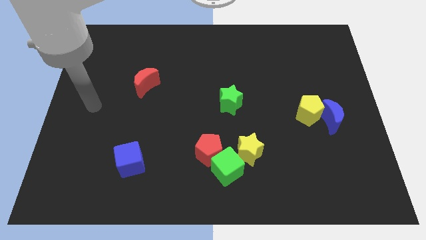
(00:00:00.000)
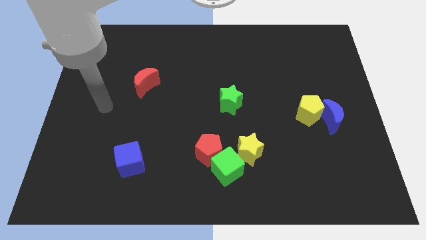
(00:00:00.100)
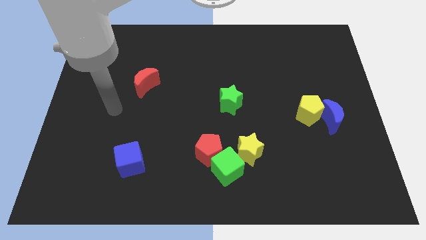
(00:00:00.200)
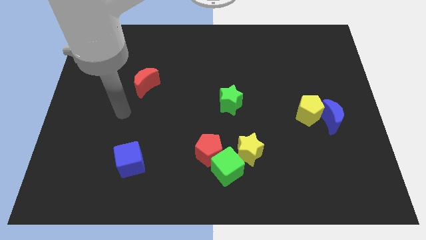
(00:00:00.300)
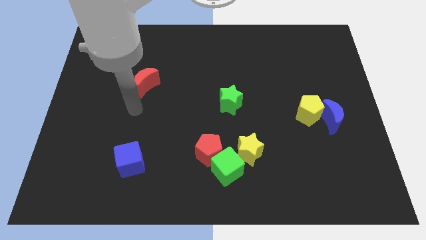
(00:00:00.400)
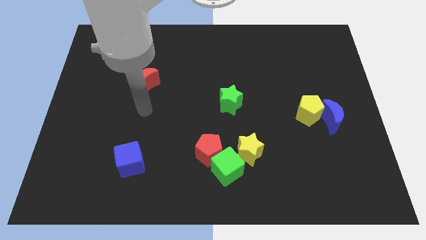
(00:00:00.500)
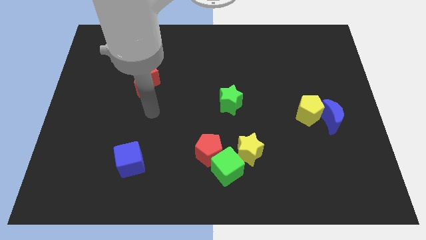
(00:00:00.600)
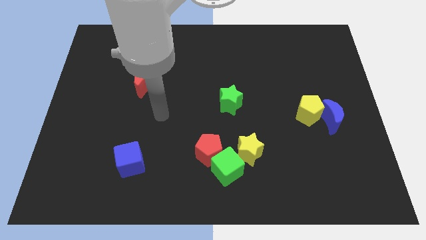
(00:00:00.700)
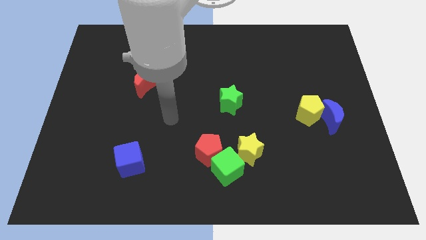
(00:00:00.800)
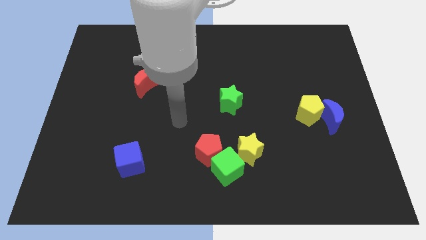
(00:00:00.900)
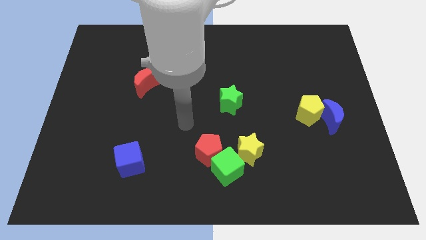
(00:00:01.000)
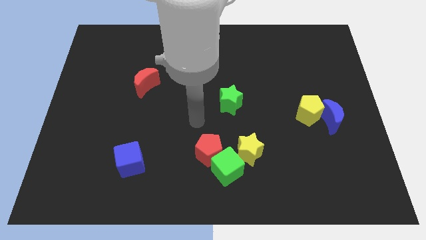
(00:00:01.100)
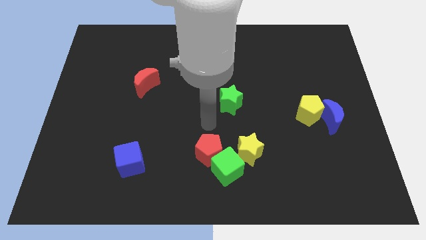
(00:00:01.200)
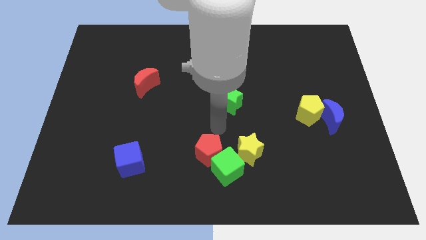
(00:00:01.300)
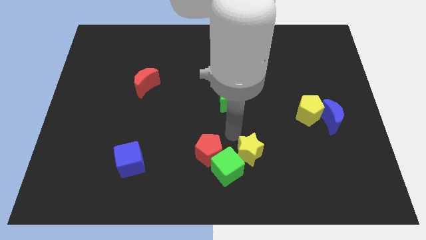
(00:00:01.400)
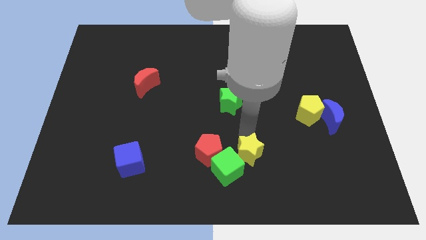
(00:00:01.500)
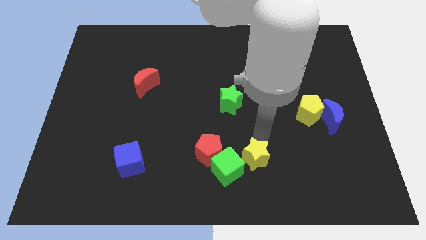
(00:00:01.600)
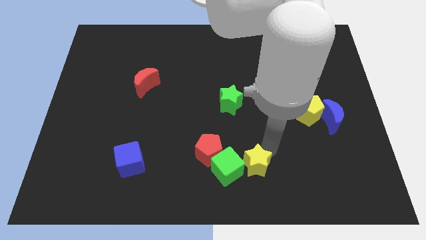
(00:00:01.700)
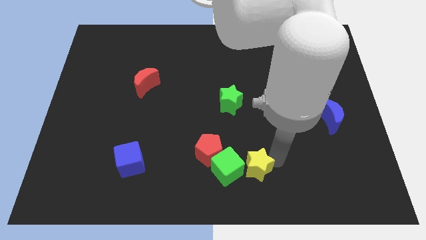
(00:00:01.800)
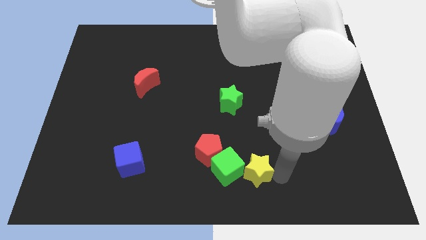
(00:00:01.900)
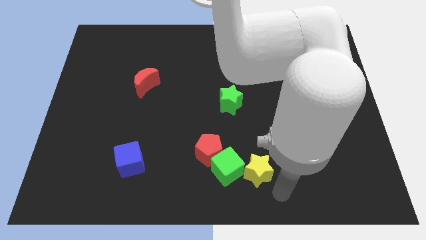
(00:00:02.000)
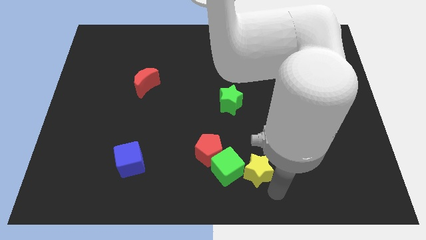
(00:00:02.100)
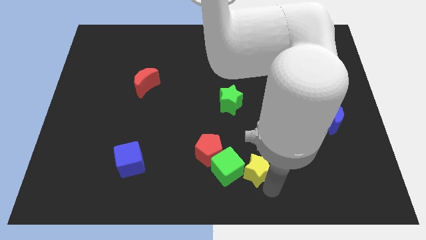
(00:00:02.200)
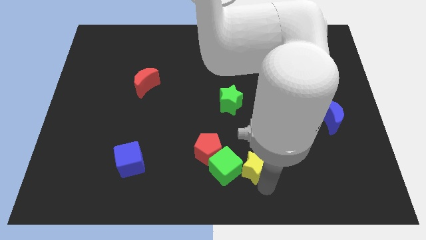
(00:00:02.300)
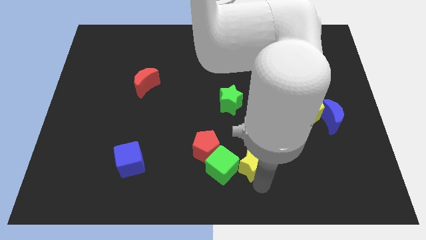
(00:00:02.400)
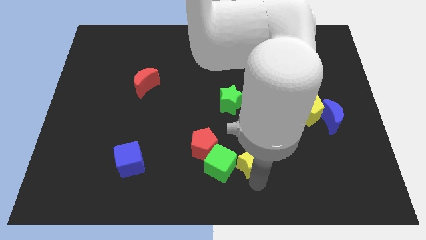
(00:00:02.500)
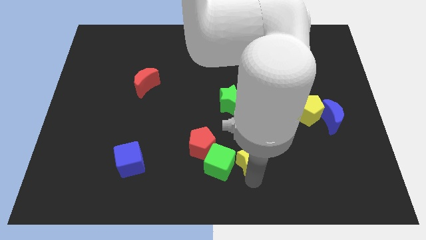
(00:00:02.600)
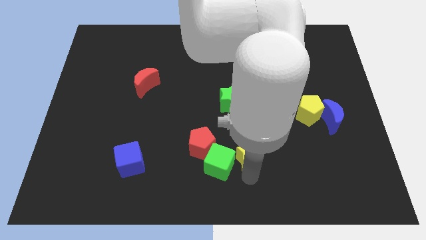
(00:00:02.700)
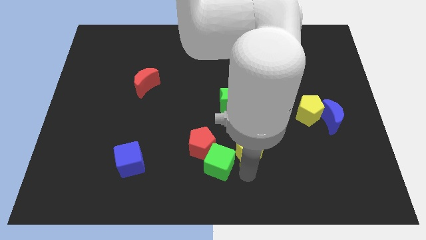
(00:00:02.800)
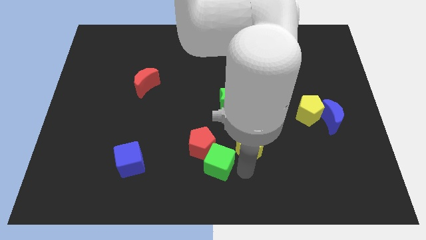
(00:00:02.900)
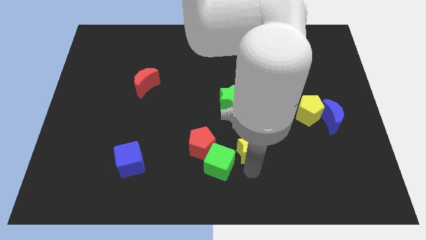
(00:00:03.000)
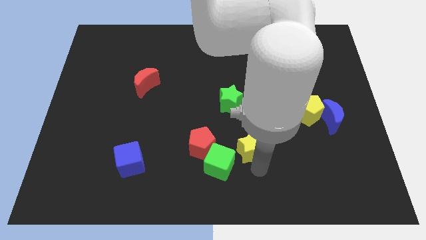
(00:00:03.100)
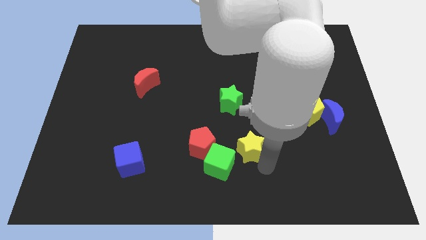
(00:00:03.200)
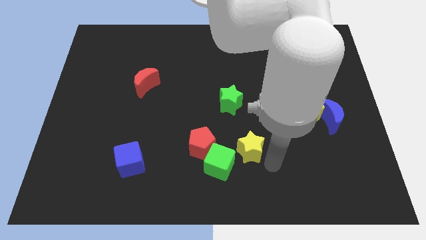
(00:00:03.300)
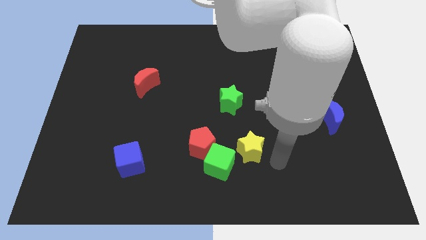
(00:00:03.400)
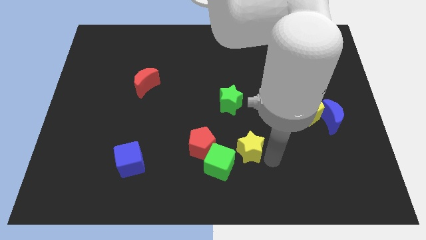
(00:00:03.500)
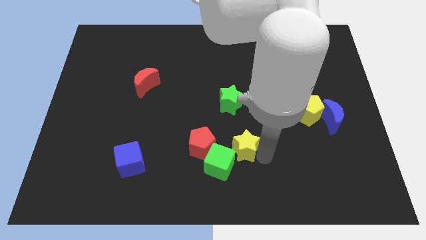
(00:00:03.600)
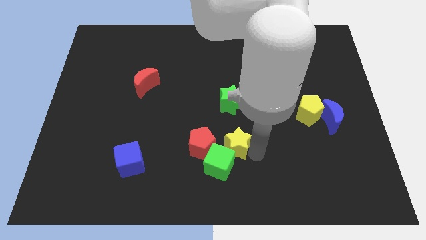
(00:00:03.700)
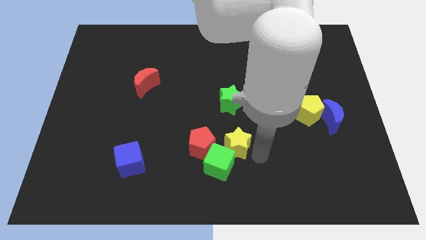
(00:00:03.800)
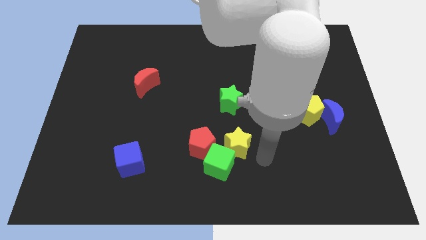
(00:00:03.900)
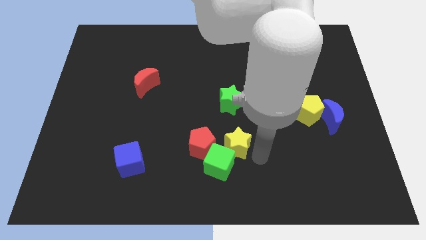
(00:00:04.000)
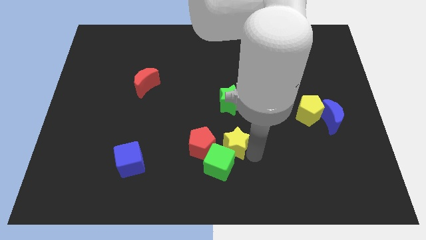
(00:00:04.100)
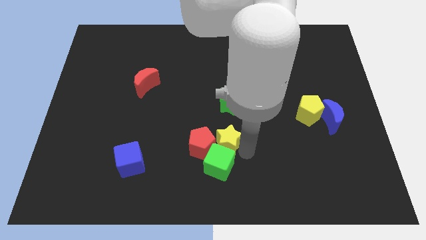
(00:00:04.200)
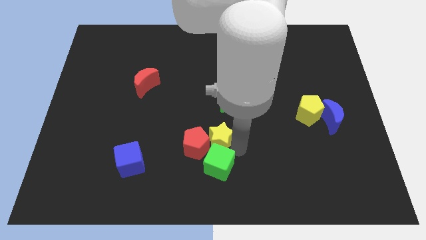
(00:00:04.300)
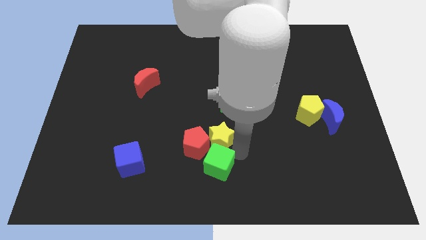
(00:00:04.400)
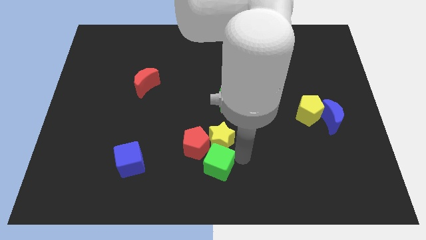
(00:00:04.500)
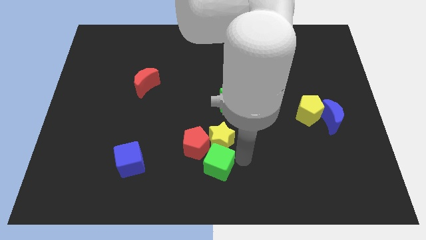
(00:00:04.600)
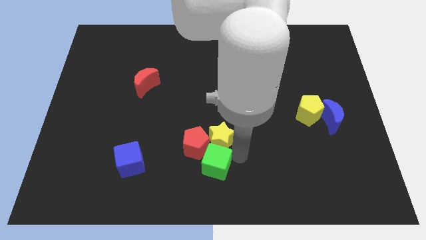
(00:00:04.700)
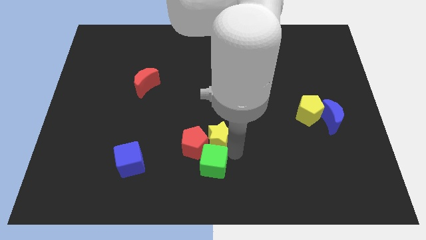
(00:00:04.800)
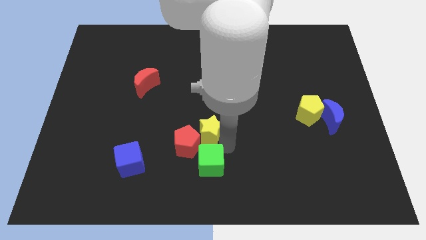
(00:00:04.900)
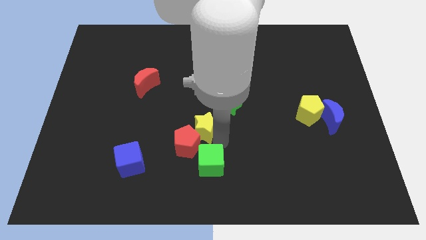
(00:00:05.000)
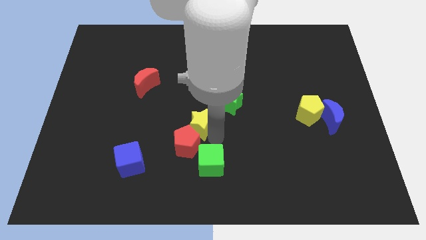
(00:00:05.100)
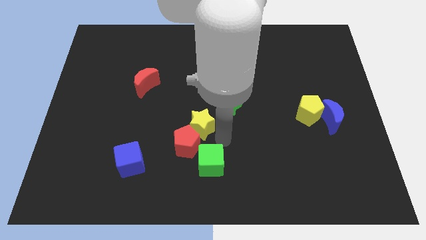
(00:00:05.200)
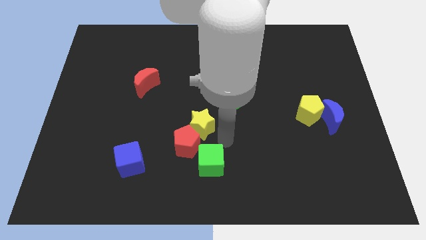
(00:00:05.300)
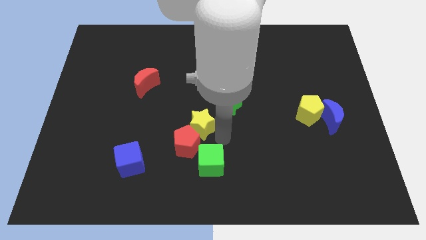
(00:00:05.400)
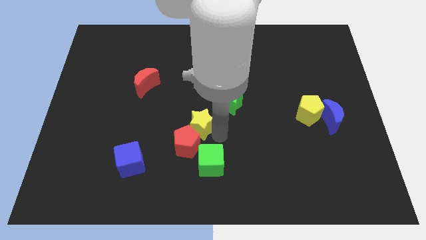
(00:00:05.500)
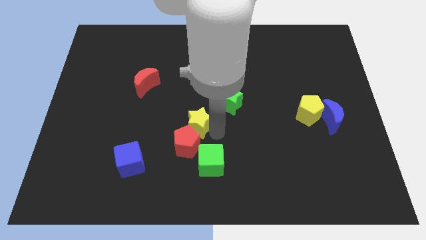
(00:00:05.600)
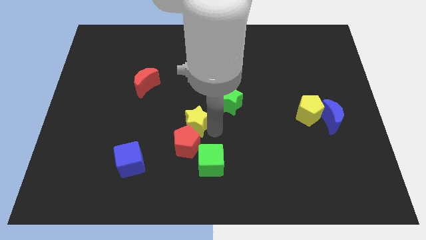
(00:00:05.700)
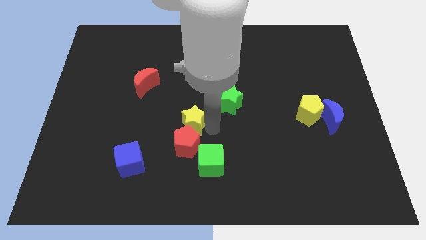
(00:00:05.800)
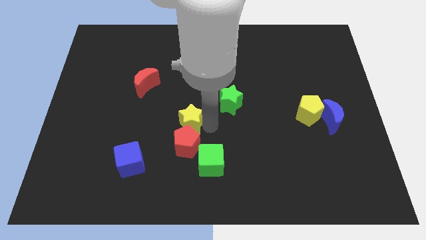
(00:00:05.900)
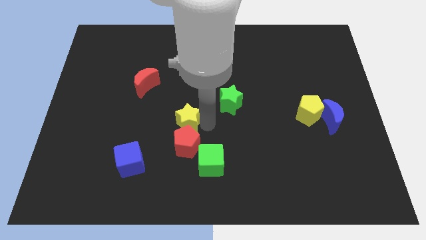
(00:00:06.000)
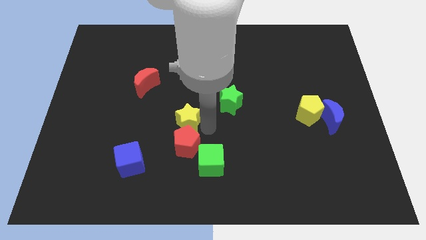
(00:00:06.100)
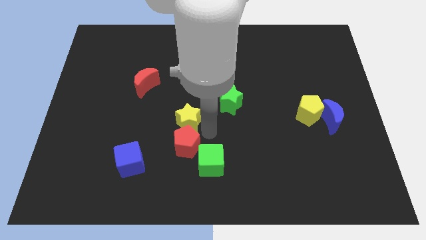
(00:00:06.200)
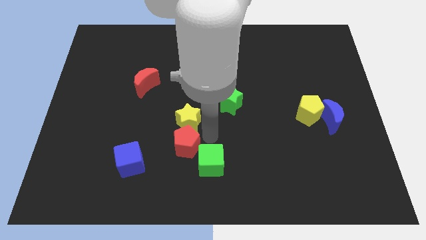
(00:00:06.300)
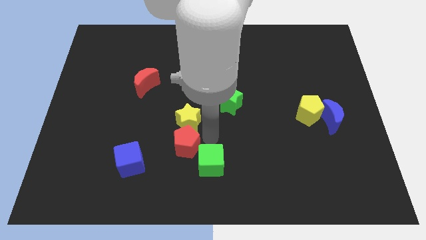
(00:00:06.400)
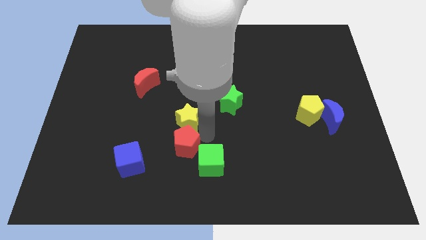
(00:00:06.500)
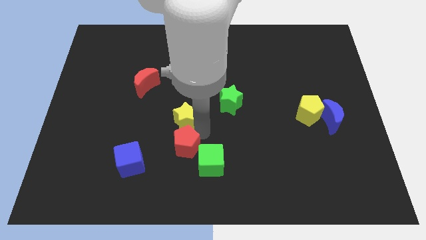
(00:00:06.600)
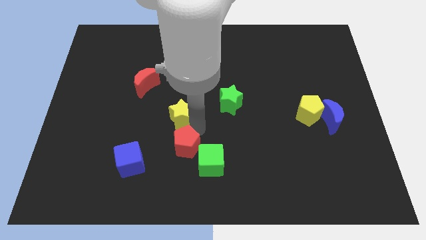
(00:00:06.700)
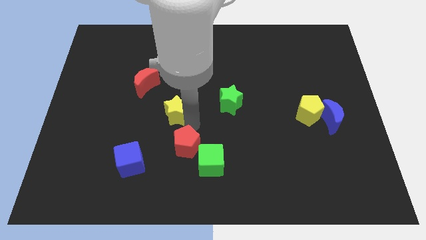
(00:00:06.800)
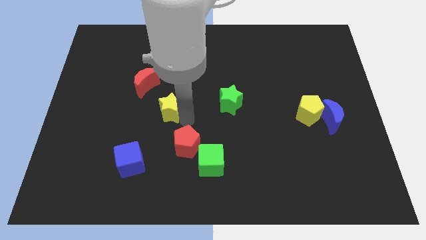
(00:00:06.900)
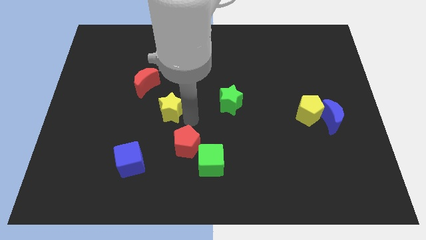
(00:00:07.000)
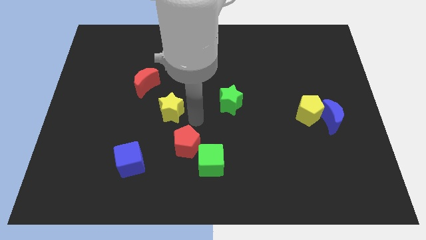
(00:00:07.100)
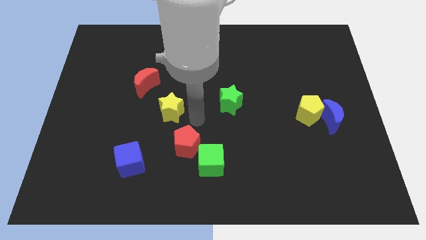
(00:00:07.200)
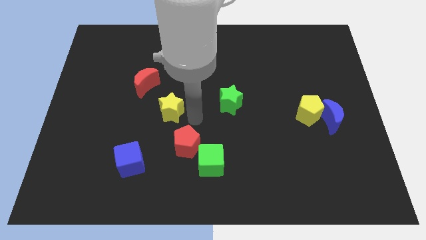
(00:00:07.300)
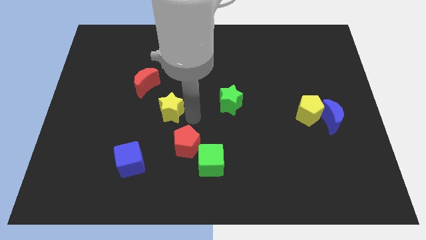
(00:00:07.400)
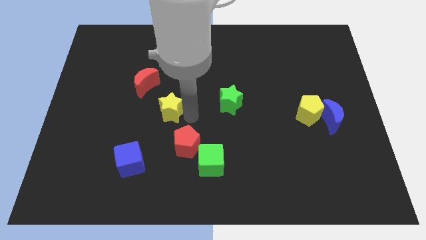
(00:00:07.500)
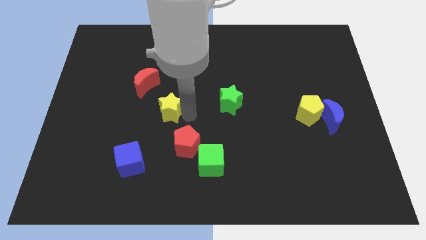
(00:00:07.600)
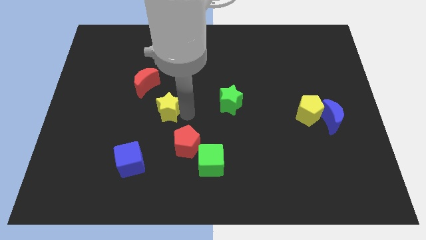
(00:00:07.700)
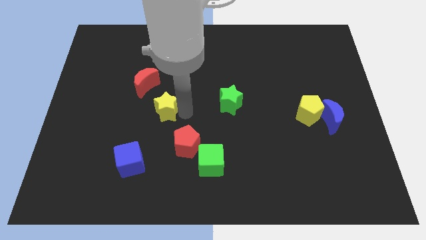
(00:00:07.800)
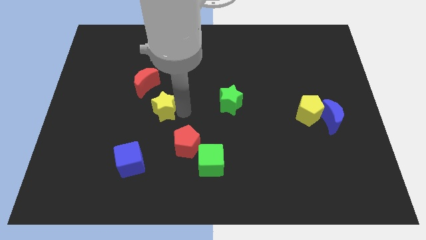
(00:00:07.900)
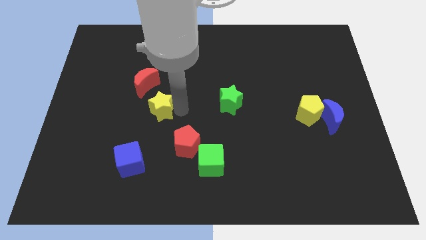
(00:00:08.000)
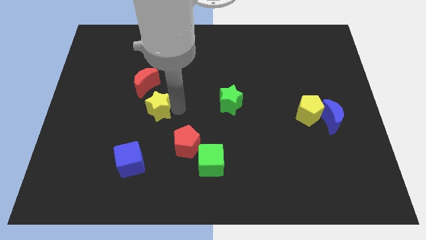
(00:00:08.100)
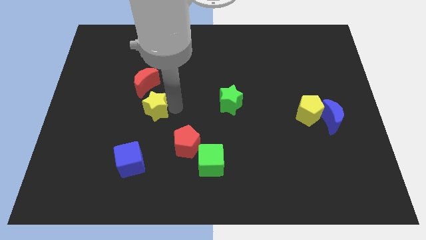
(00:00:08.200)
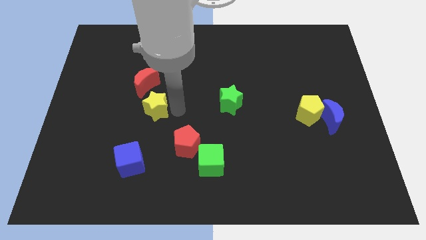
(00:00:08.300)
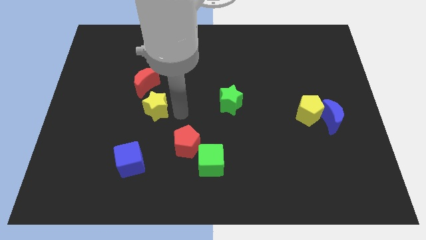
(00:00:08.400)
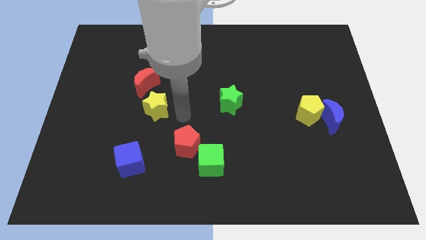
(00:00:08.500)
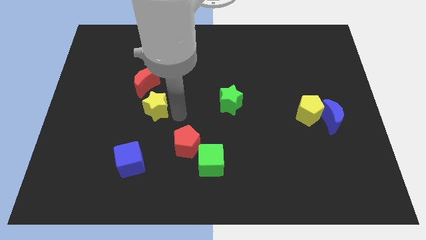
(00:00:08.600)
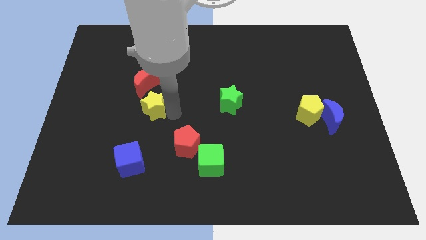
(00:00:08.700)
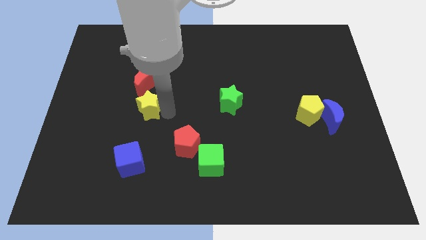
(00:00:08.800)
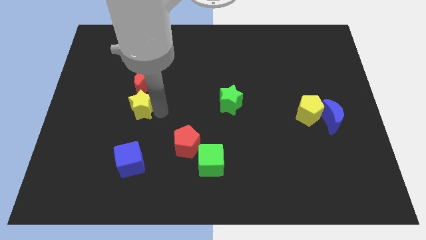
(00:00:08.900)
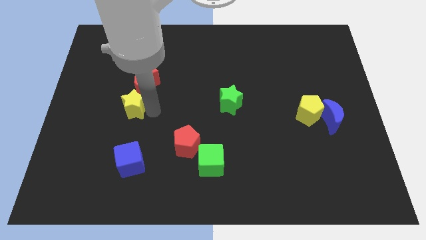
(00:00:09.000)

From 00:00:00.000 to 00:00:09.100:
put the yellow star to the bottom left side of the red moon
